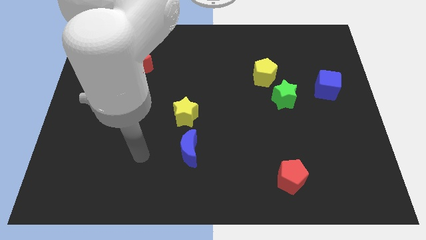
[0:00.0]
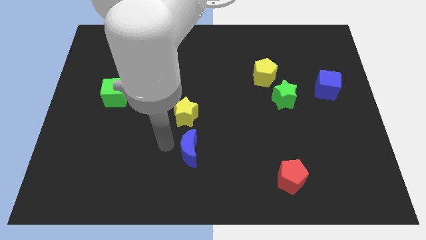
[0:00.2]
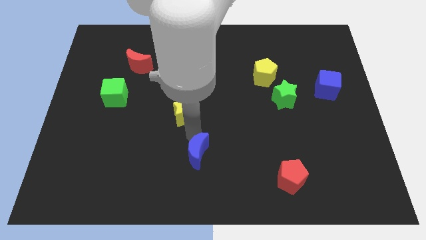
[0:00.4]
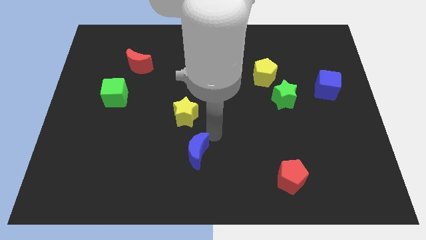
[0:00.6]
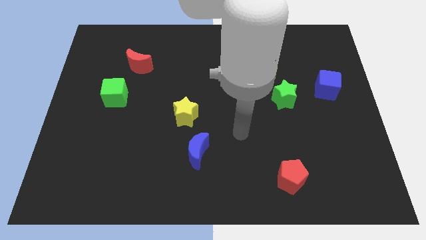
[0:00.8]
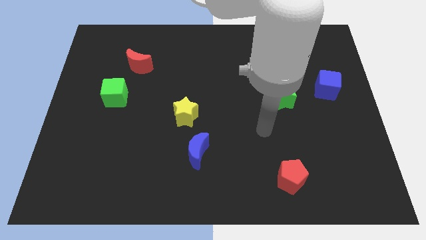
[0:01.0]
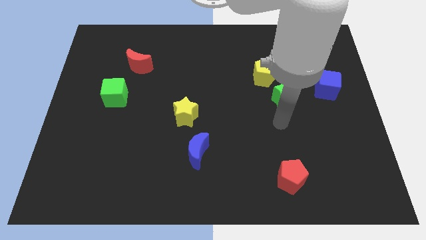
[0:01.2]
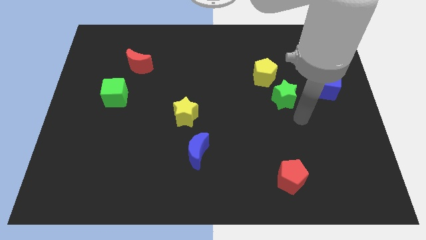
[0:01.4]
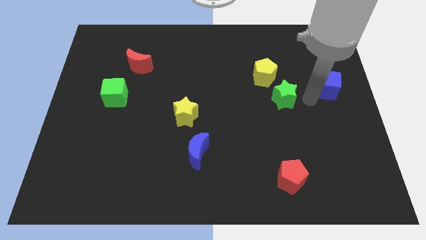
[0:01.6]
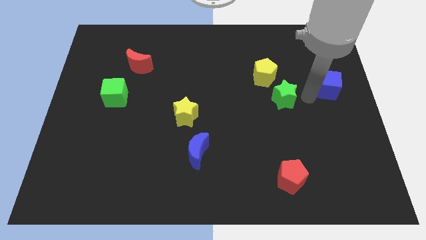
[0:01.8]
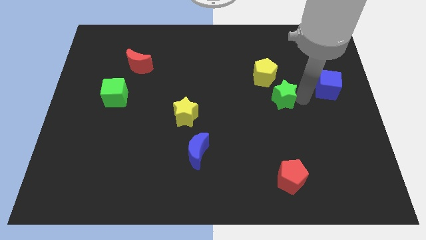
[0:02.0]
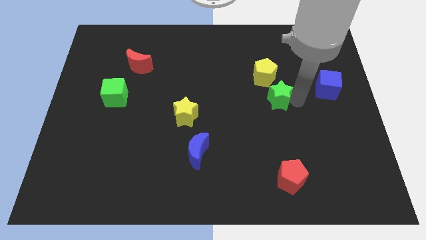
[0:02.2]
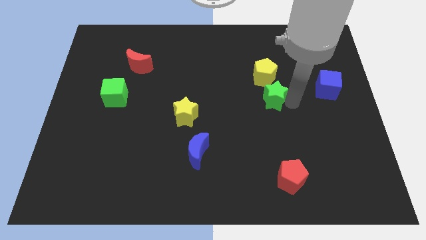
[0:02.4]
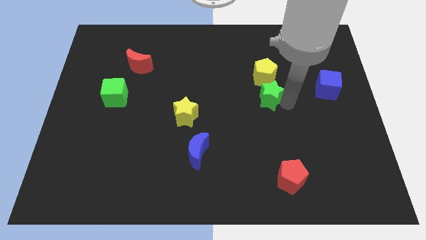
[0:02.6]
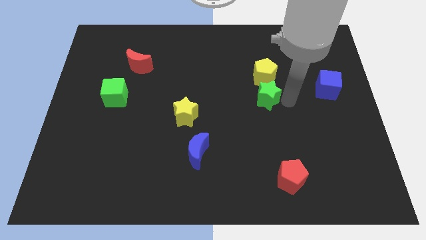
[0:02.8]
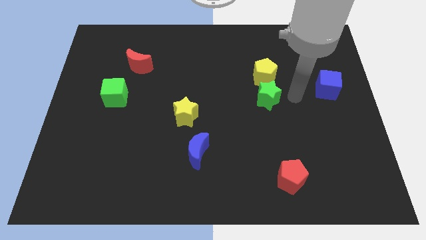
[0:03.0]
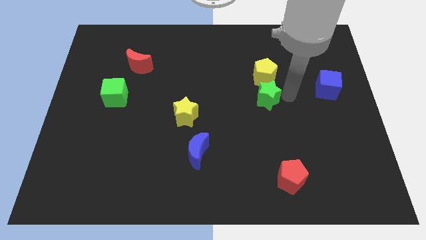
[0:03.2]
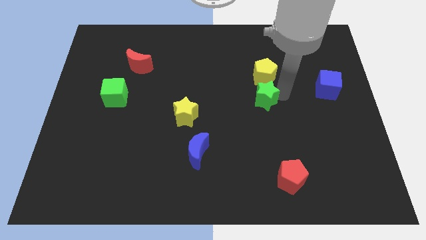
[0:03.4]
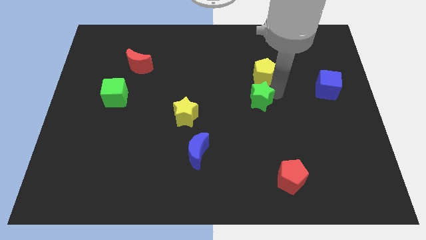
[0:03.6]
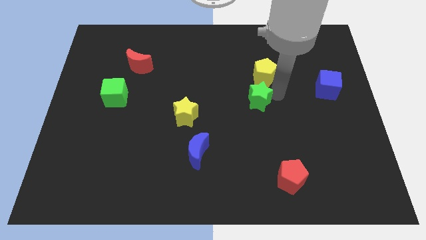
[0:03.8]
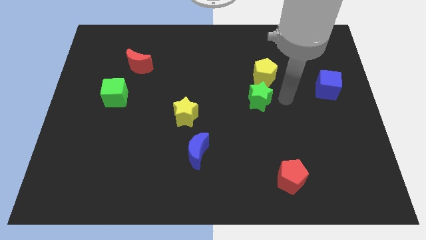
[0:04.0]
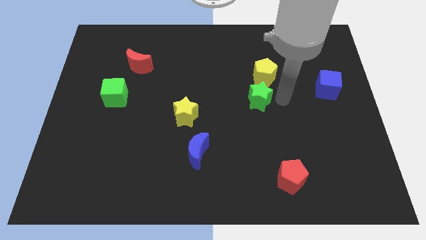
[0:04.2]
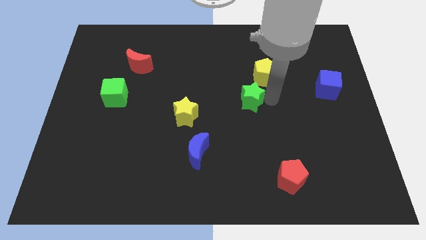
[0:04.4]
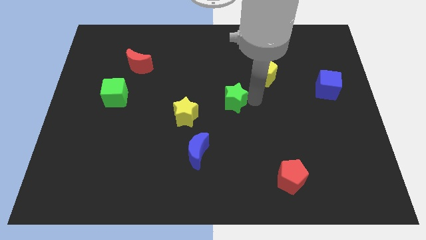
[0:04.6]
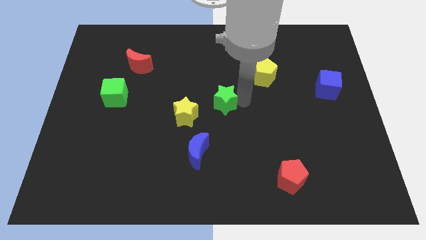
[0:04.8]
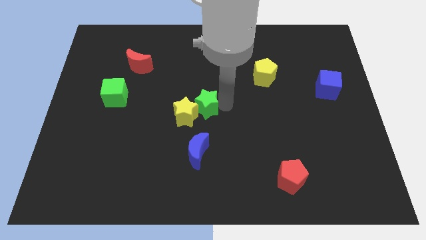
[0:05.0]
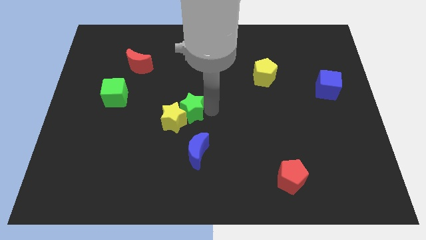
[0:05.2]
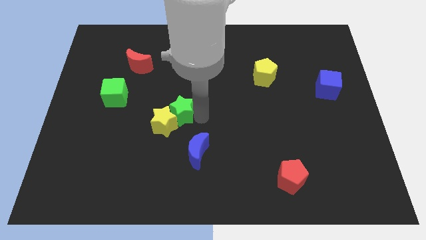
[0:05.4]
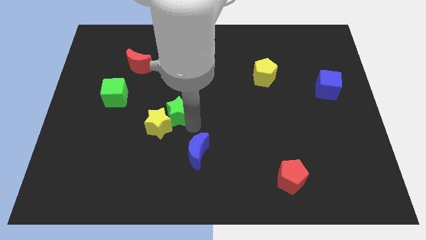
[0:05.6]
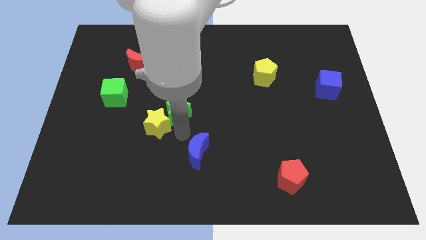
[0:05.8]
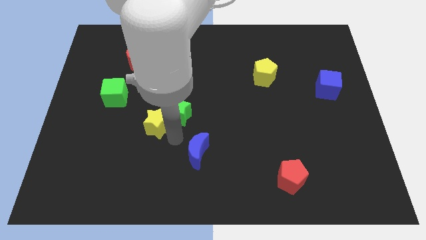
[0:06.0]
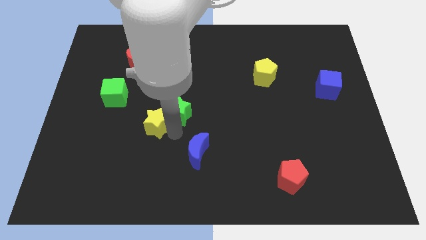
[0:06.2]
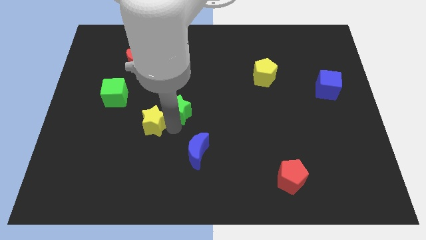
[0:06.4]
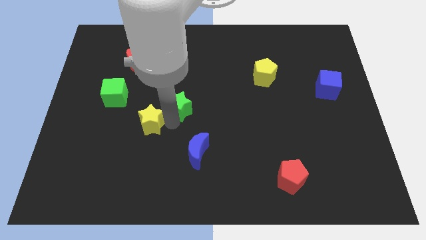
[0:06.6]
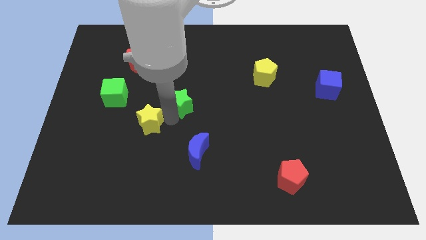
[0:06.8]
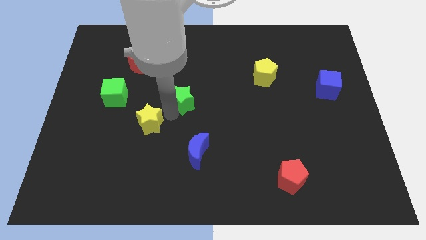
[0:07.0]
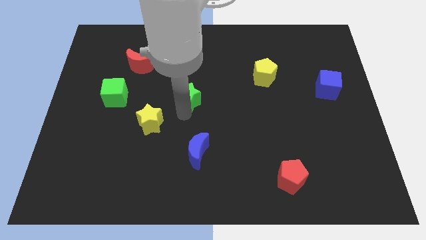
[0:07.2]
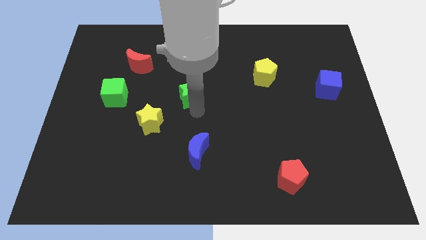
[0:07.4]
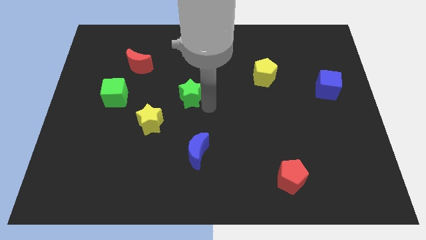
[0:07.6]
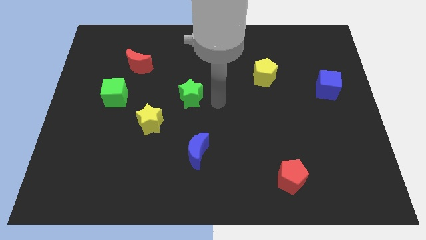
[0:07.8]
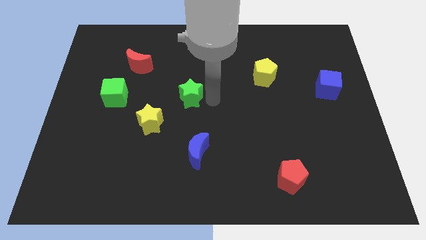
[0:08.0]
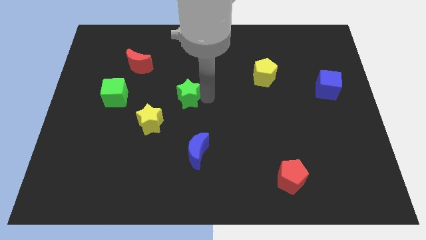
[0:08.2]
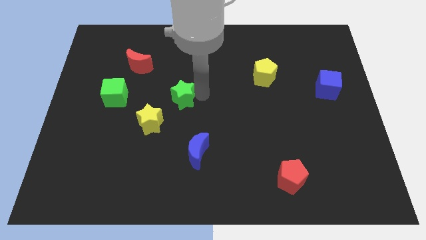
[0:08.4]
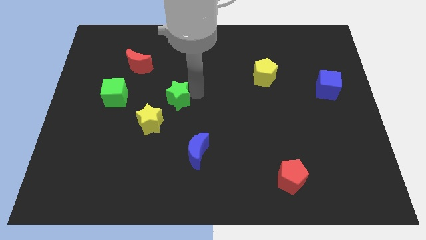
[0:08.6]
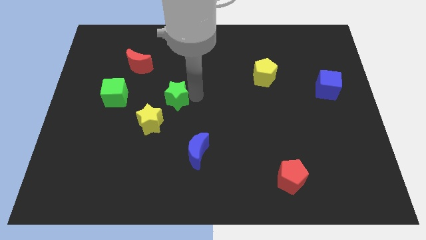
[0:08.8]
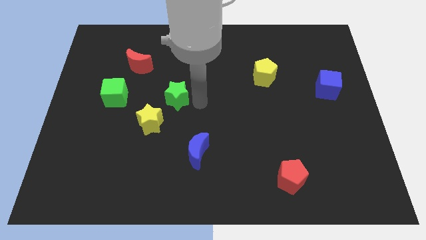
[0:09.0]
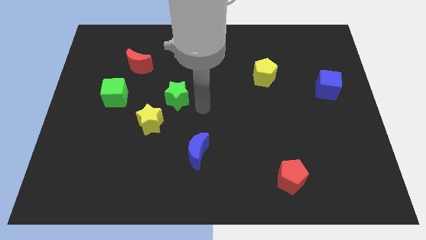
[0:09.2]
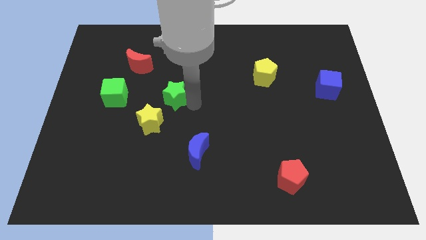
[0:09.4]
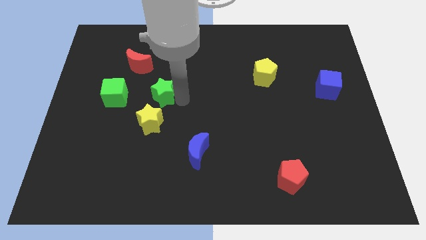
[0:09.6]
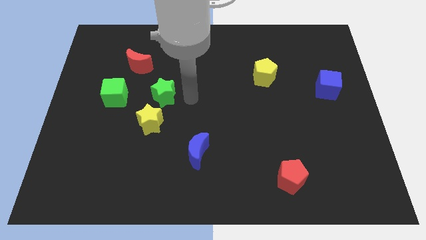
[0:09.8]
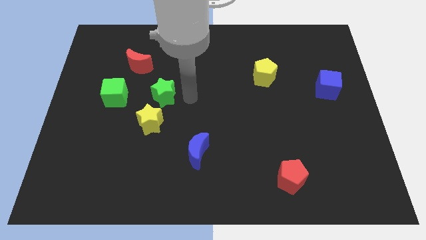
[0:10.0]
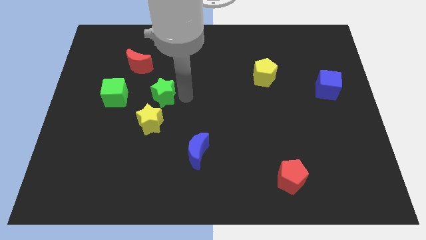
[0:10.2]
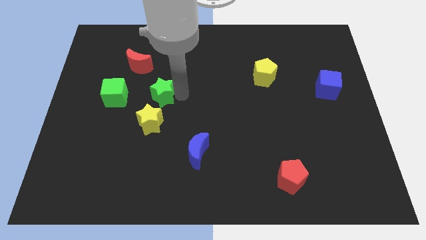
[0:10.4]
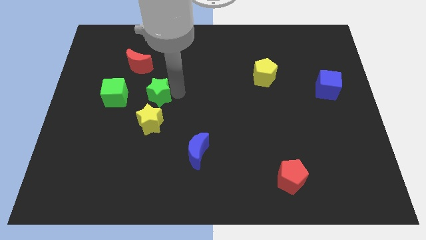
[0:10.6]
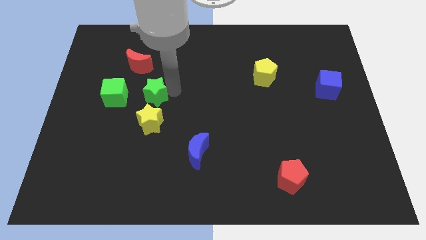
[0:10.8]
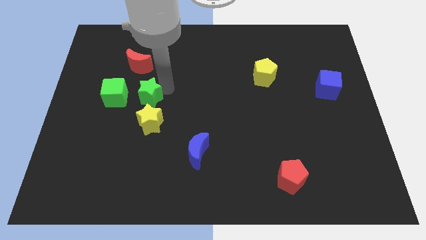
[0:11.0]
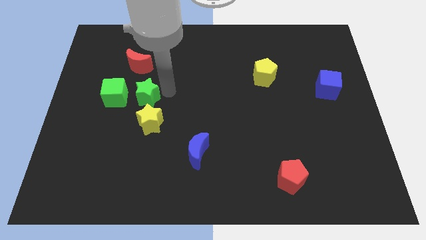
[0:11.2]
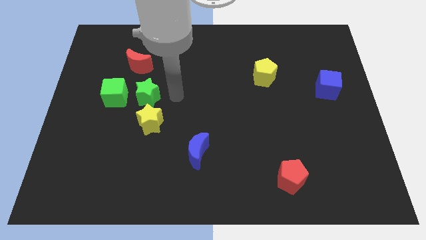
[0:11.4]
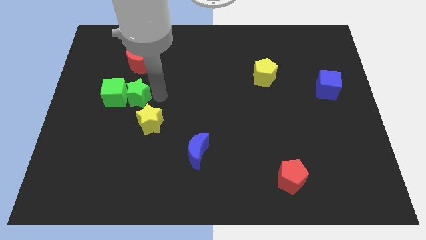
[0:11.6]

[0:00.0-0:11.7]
push the green star next to the green cube

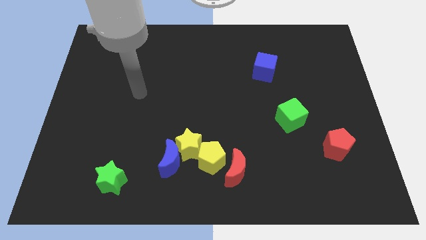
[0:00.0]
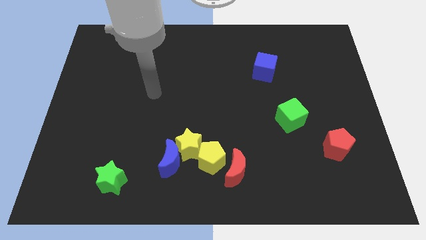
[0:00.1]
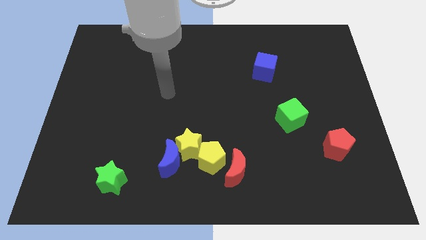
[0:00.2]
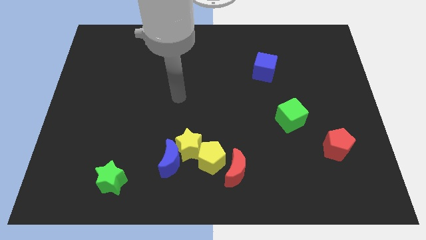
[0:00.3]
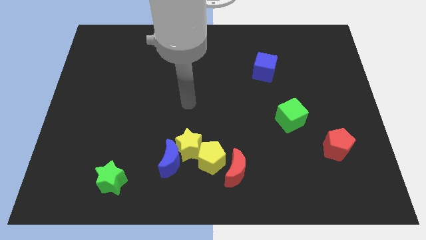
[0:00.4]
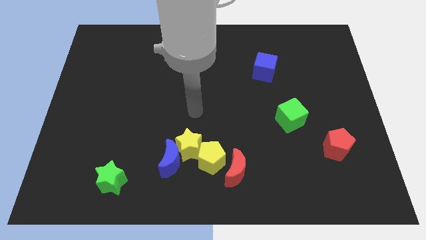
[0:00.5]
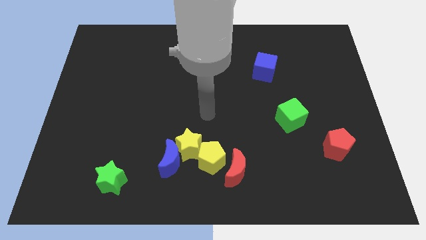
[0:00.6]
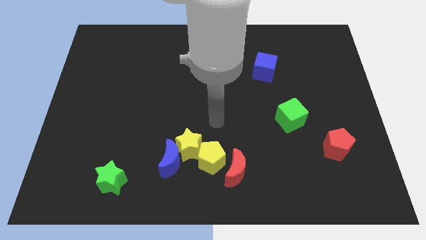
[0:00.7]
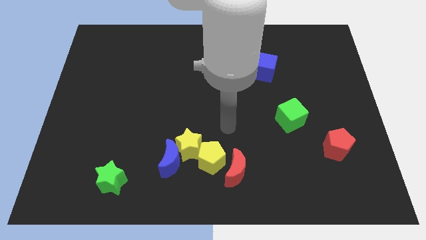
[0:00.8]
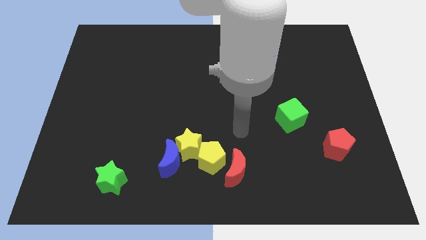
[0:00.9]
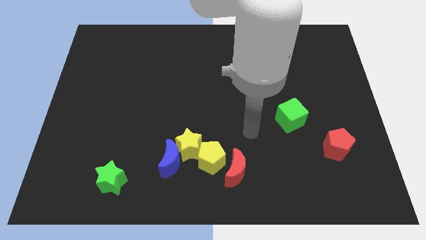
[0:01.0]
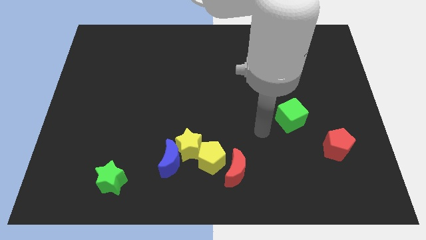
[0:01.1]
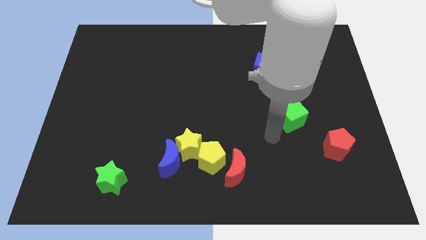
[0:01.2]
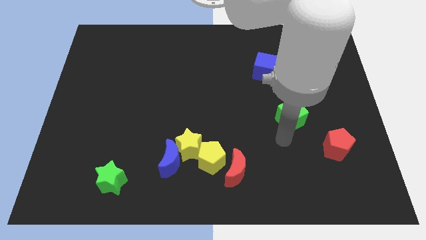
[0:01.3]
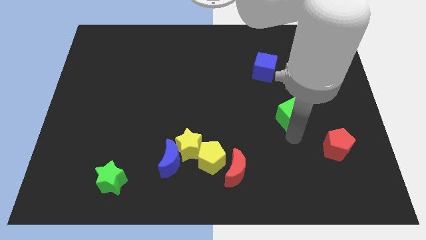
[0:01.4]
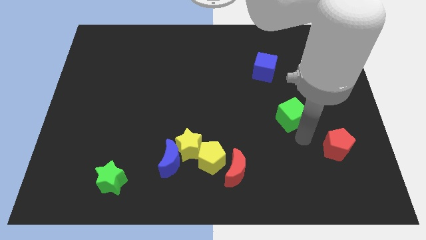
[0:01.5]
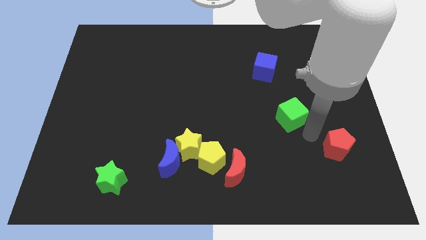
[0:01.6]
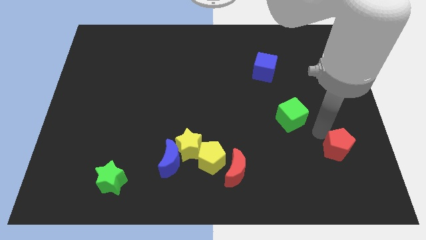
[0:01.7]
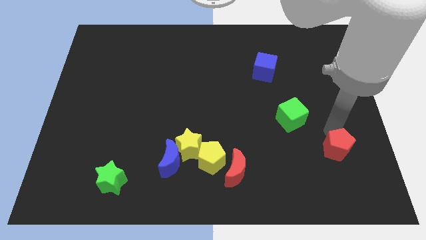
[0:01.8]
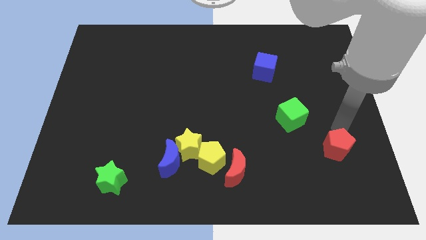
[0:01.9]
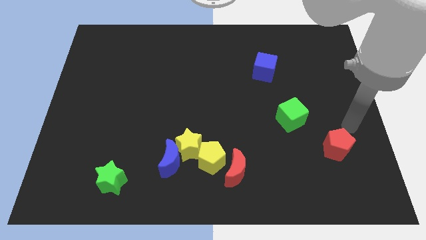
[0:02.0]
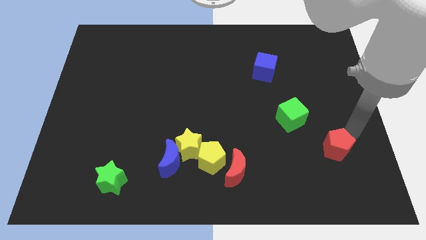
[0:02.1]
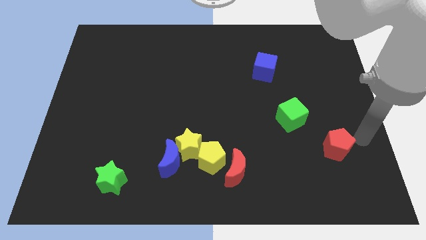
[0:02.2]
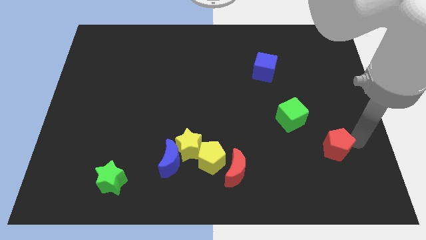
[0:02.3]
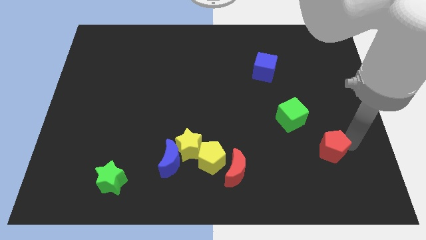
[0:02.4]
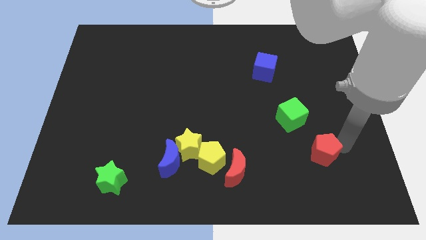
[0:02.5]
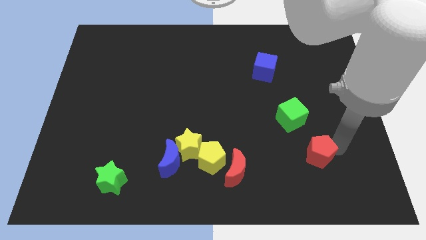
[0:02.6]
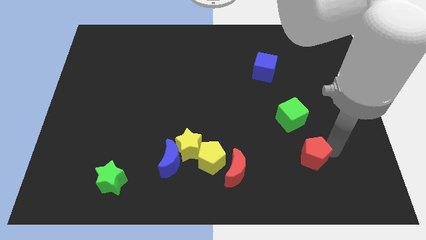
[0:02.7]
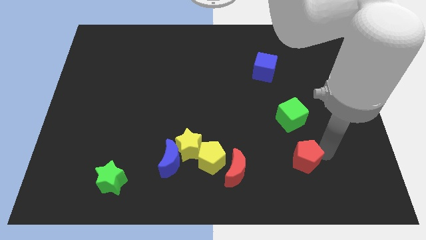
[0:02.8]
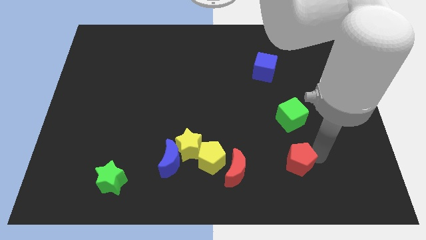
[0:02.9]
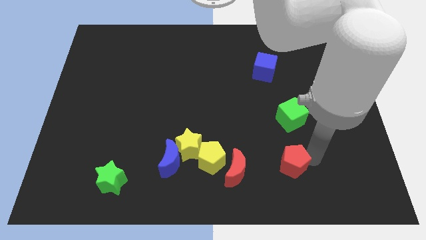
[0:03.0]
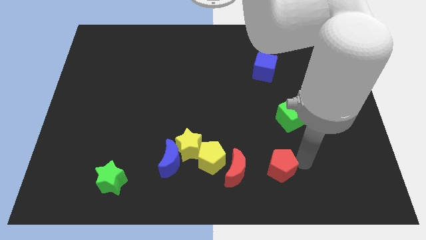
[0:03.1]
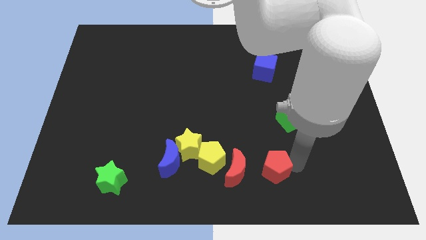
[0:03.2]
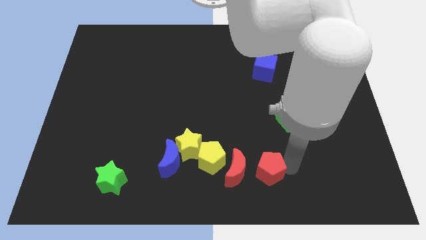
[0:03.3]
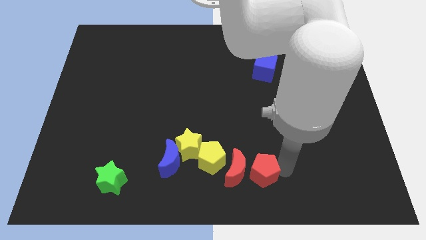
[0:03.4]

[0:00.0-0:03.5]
push the red pentagon next to the red moon
